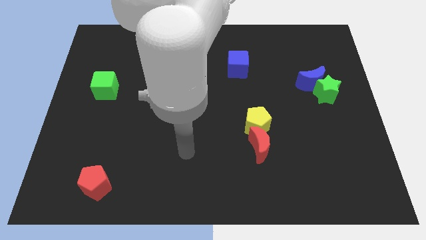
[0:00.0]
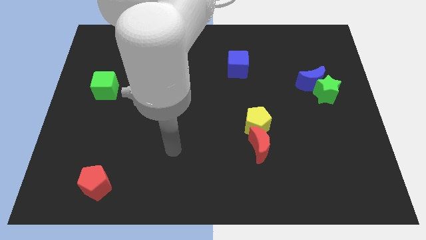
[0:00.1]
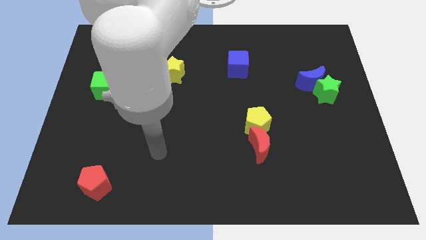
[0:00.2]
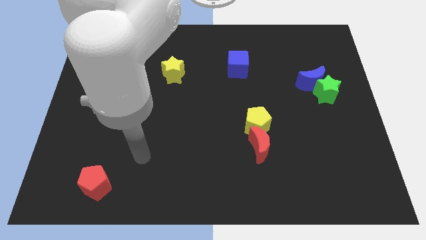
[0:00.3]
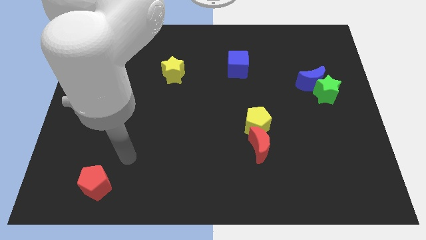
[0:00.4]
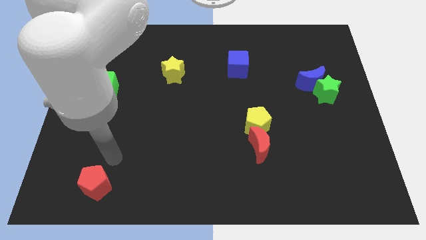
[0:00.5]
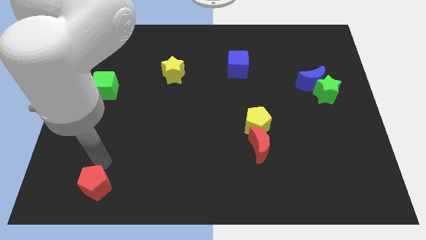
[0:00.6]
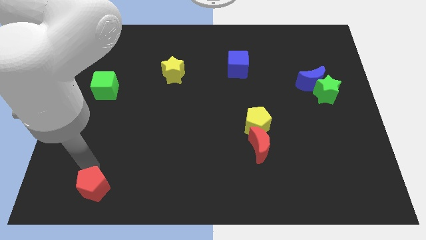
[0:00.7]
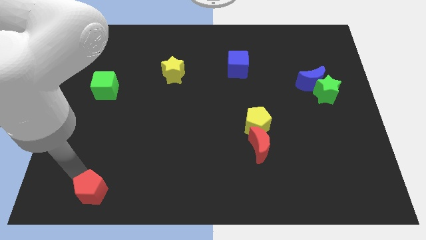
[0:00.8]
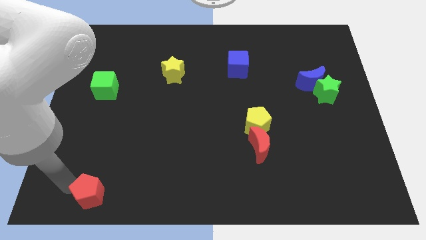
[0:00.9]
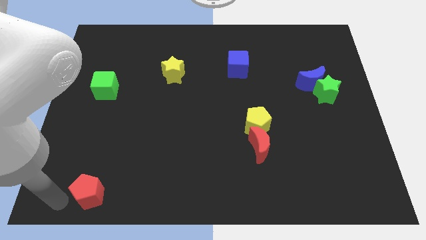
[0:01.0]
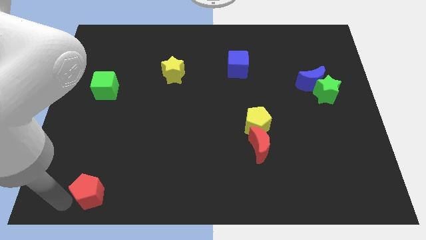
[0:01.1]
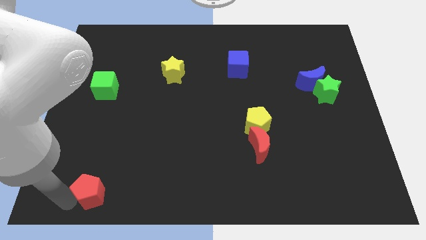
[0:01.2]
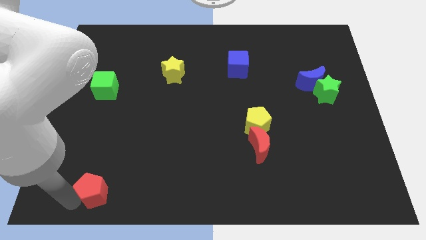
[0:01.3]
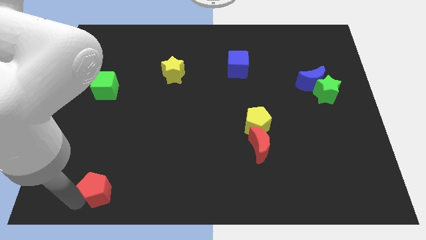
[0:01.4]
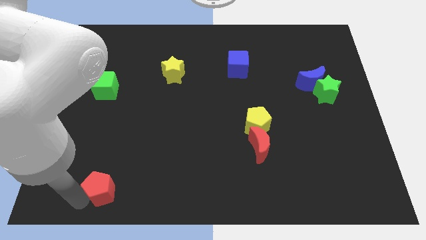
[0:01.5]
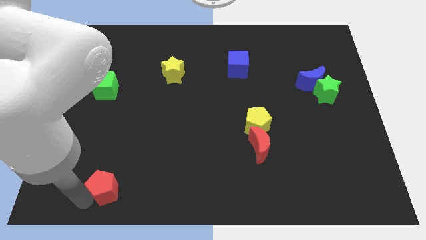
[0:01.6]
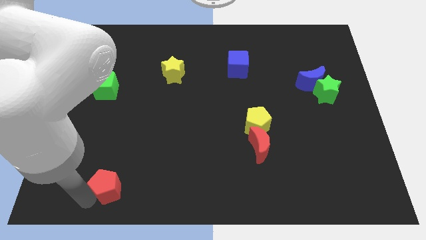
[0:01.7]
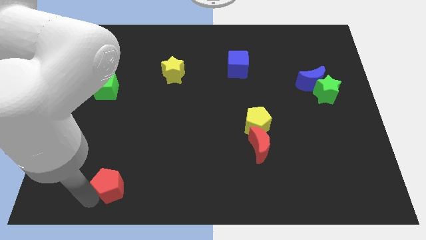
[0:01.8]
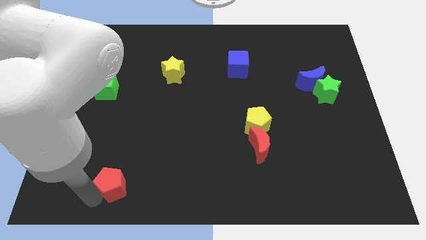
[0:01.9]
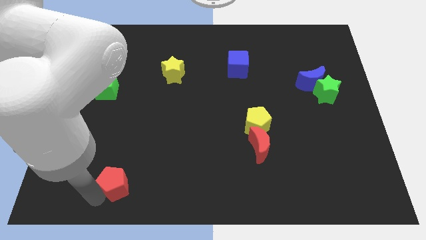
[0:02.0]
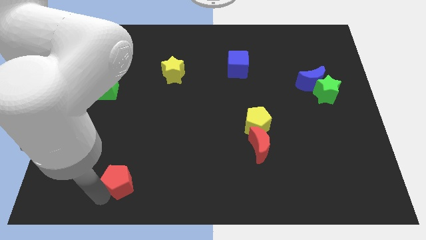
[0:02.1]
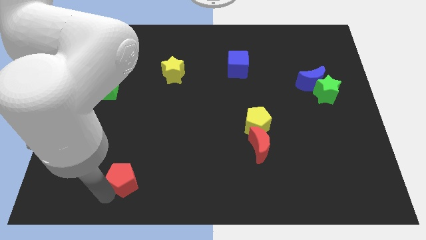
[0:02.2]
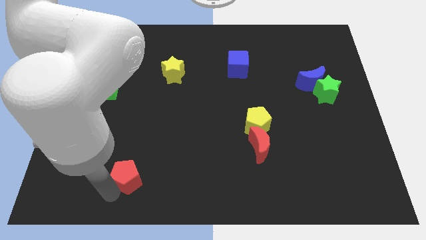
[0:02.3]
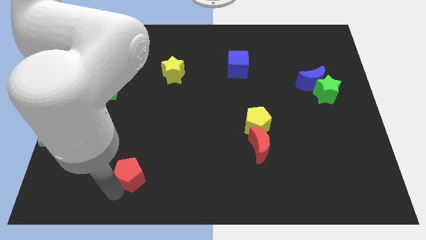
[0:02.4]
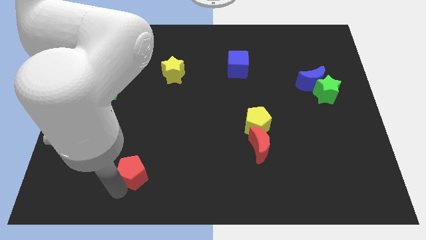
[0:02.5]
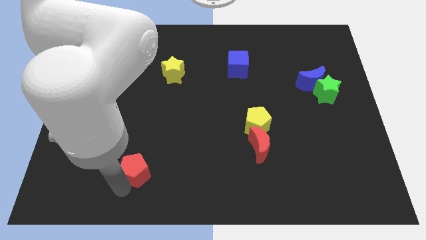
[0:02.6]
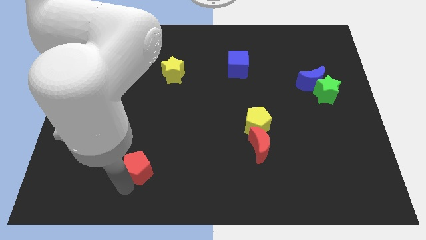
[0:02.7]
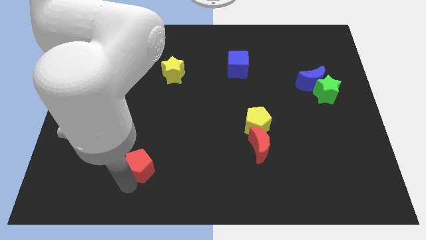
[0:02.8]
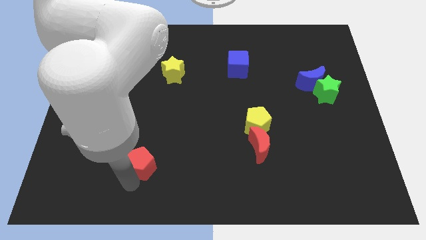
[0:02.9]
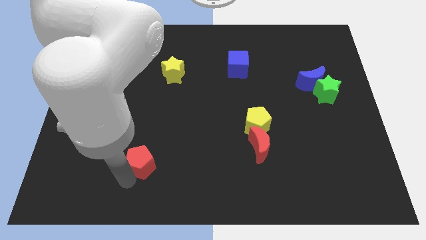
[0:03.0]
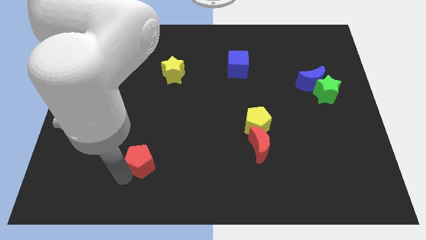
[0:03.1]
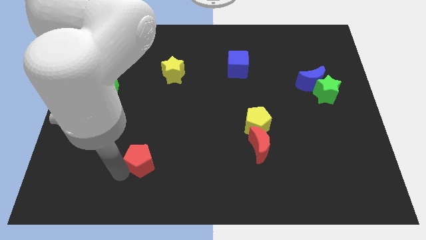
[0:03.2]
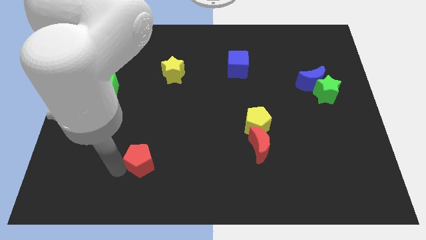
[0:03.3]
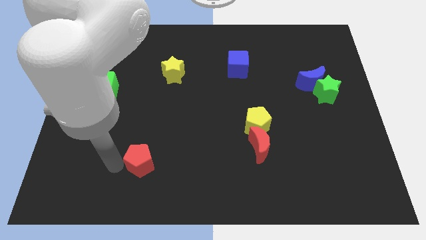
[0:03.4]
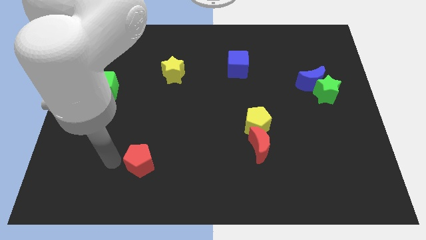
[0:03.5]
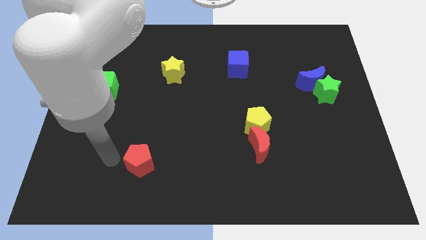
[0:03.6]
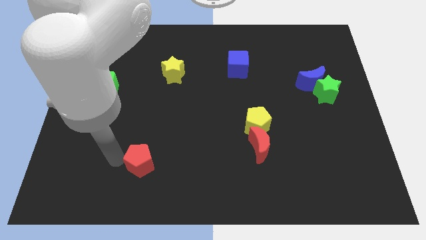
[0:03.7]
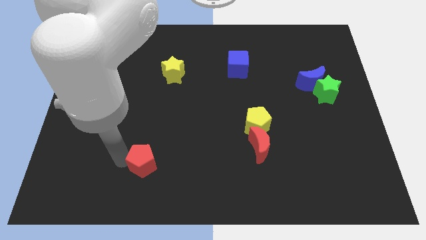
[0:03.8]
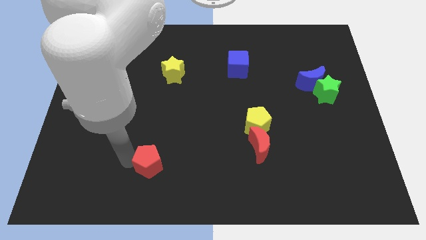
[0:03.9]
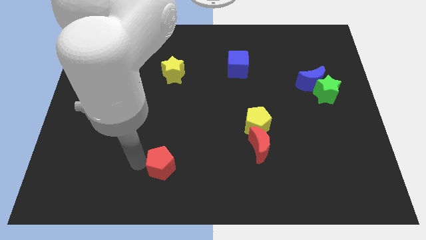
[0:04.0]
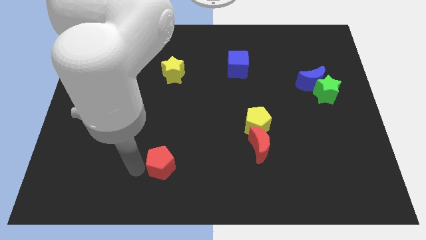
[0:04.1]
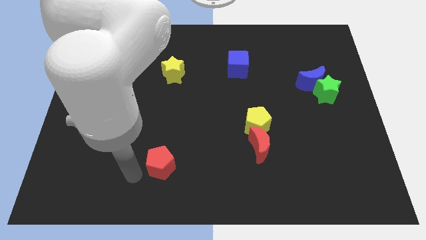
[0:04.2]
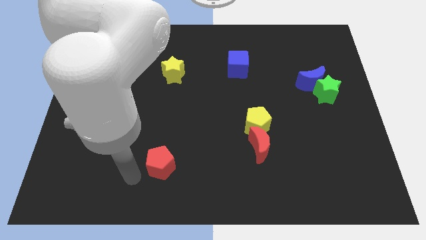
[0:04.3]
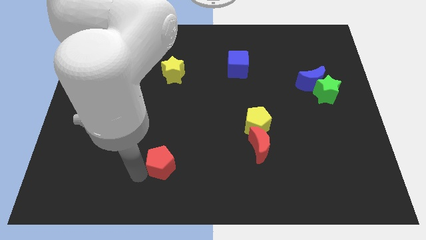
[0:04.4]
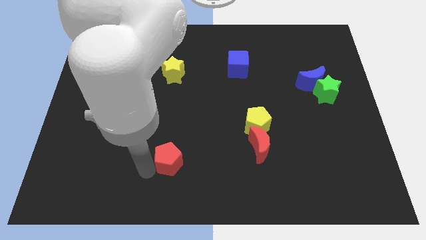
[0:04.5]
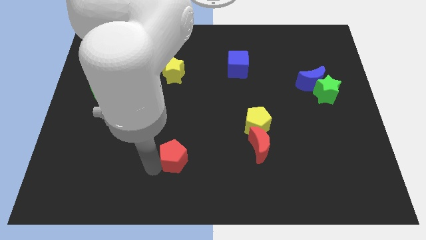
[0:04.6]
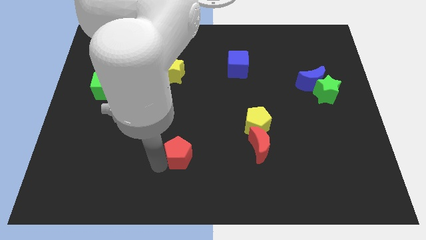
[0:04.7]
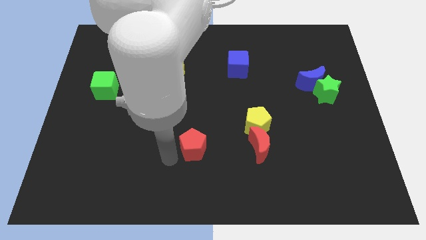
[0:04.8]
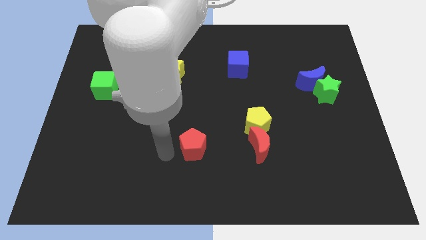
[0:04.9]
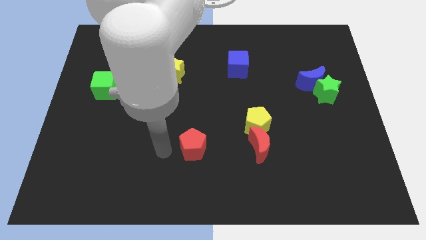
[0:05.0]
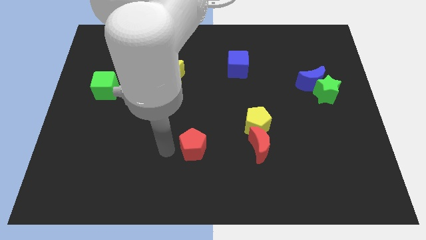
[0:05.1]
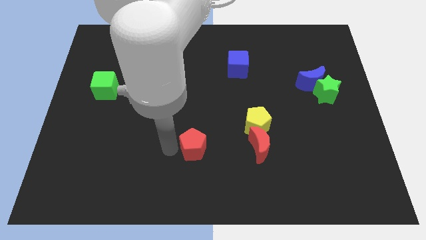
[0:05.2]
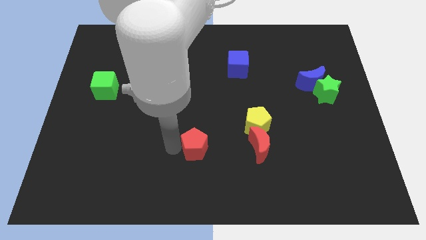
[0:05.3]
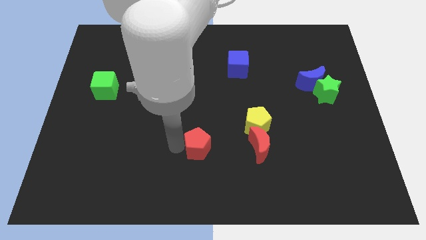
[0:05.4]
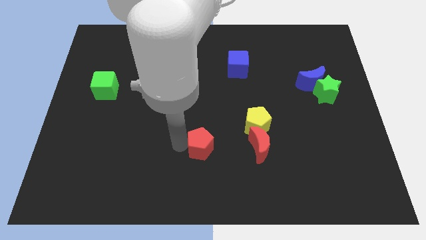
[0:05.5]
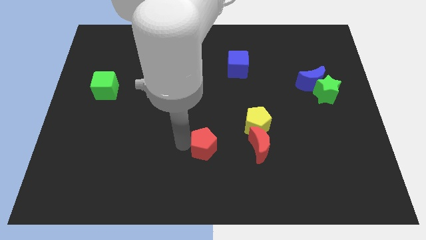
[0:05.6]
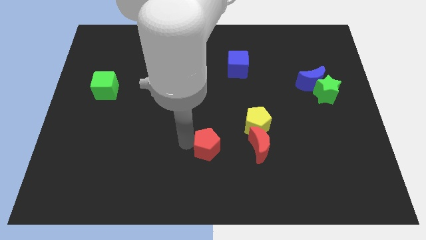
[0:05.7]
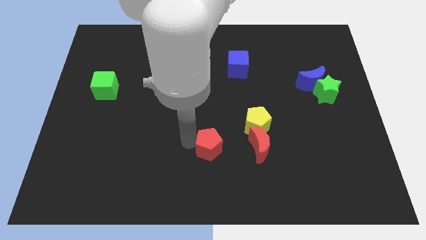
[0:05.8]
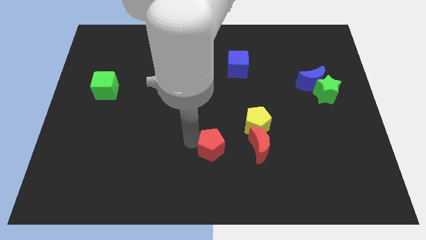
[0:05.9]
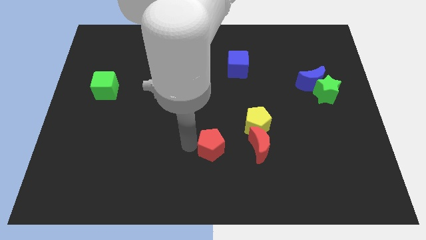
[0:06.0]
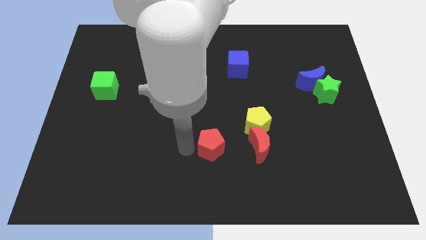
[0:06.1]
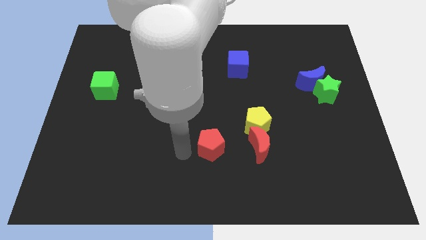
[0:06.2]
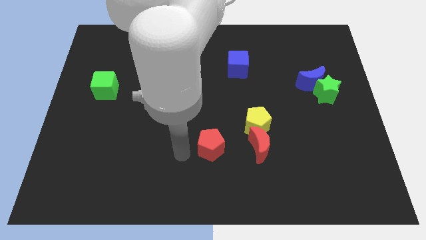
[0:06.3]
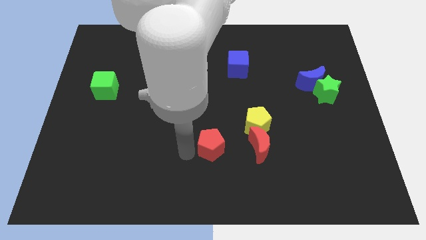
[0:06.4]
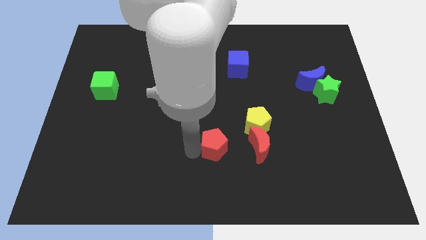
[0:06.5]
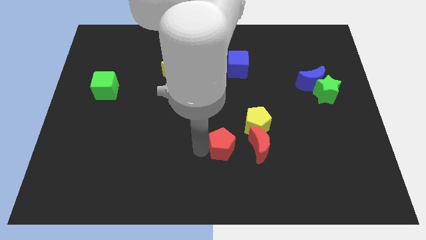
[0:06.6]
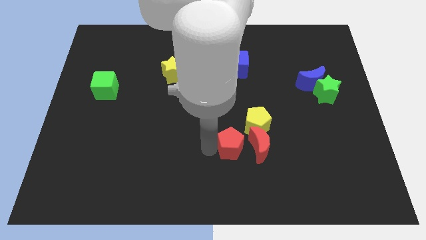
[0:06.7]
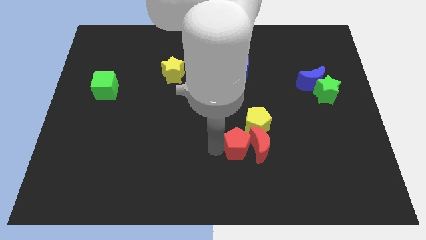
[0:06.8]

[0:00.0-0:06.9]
push the red pentagon towards the red moon
